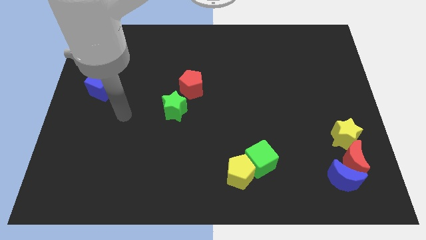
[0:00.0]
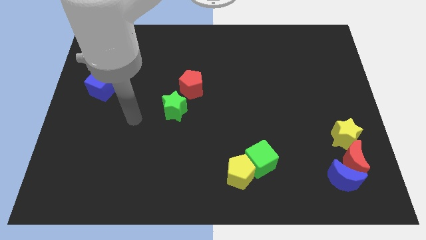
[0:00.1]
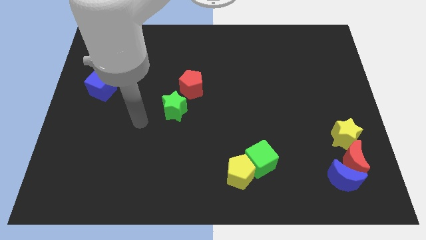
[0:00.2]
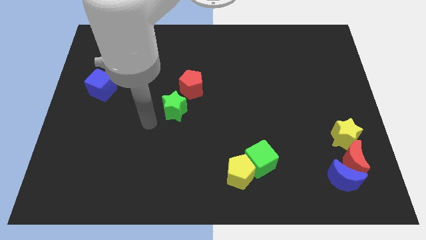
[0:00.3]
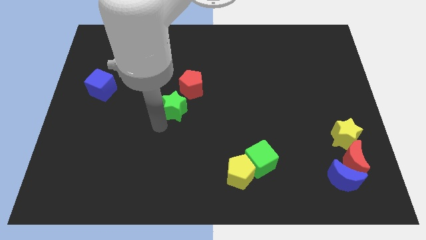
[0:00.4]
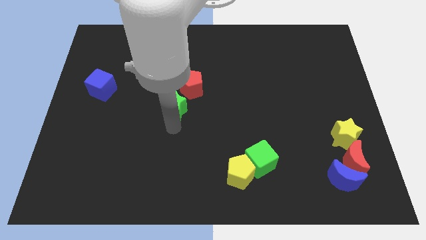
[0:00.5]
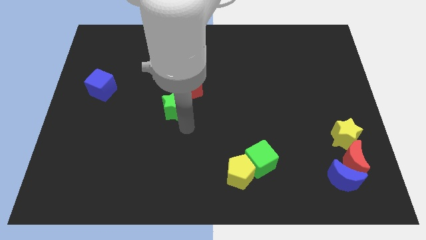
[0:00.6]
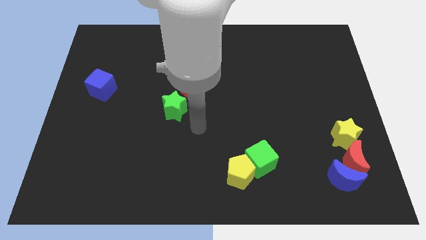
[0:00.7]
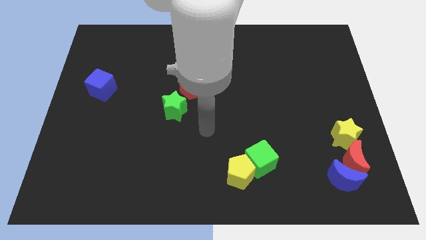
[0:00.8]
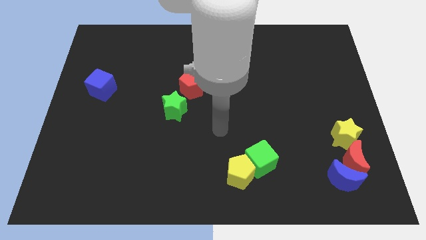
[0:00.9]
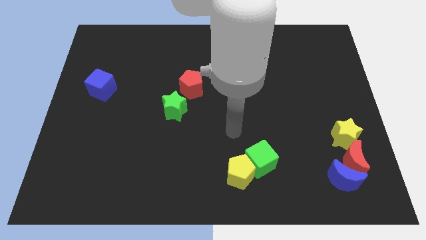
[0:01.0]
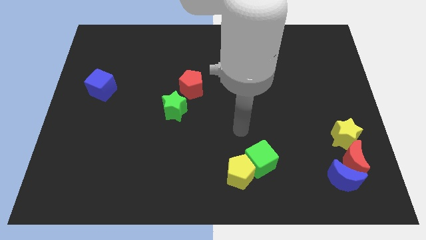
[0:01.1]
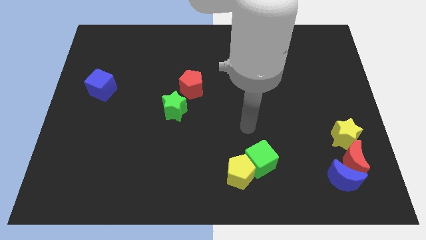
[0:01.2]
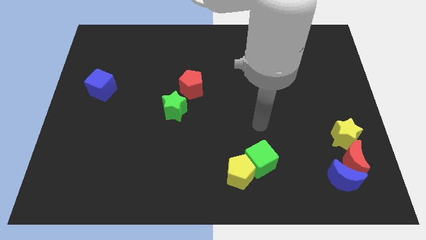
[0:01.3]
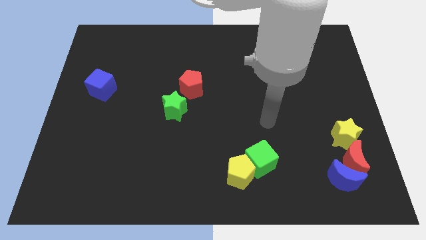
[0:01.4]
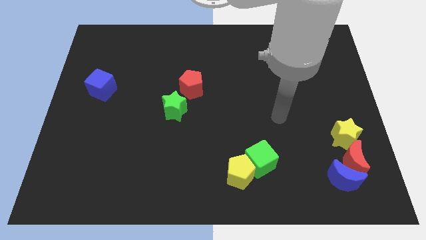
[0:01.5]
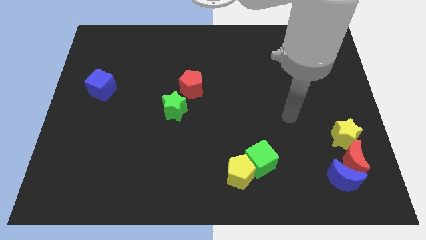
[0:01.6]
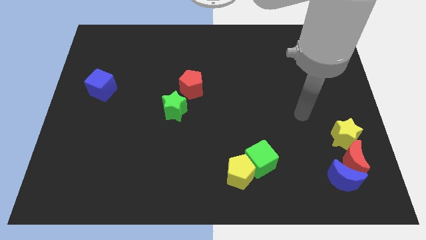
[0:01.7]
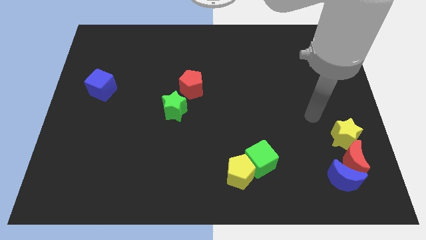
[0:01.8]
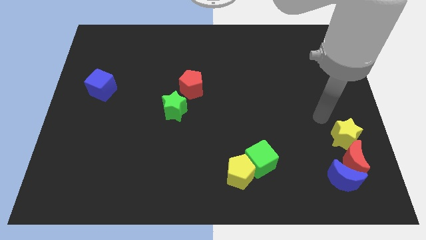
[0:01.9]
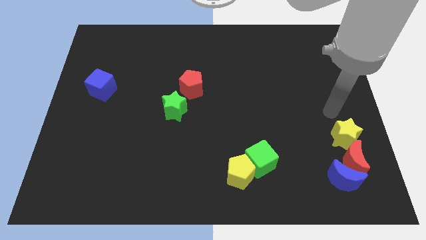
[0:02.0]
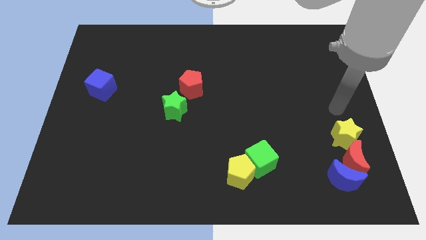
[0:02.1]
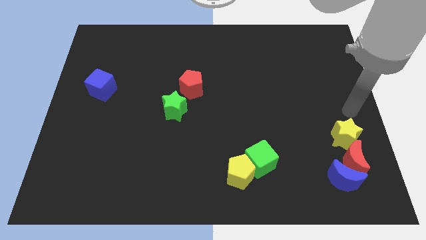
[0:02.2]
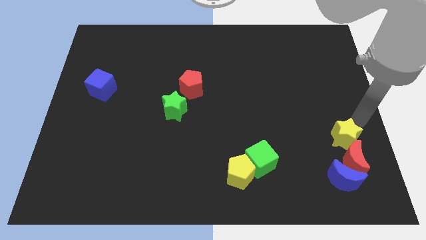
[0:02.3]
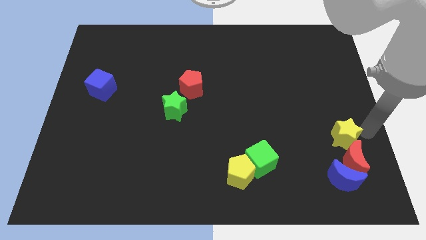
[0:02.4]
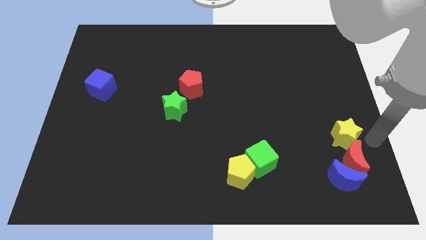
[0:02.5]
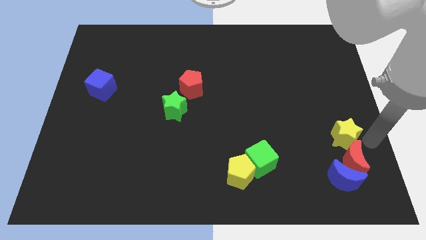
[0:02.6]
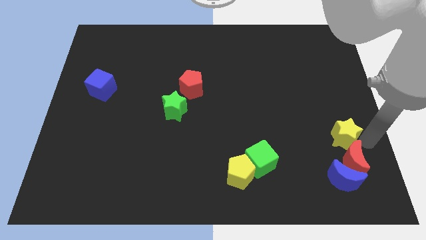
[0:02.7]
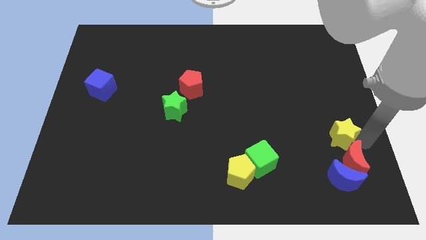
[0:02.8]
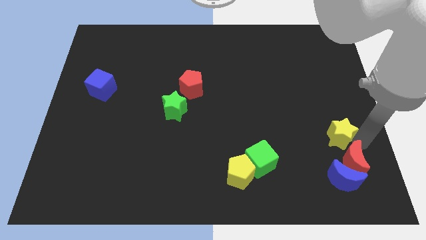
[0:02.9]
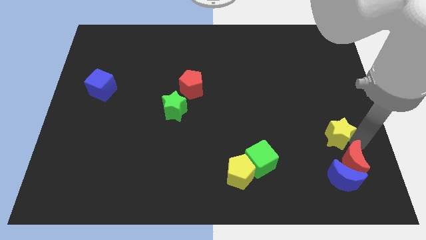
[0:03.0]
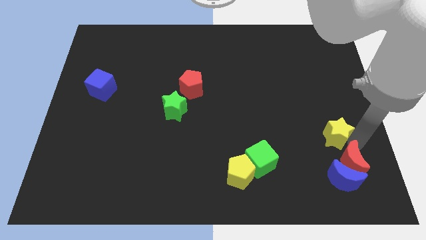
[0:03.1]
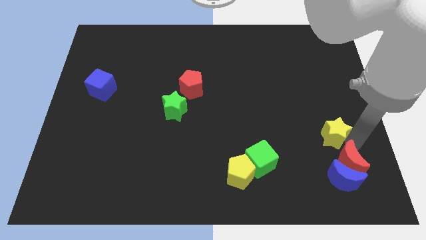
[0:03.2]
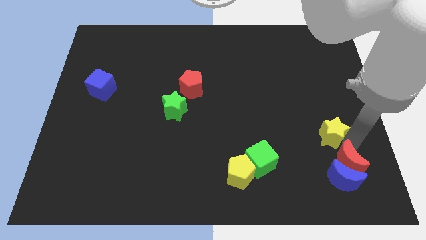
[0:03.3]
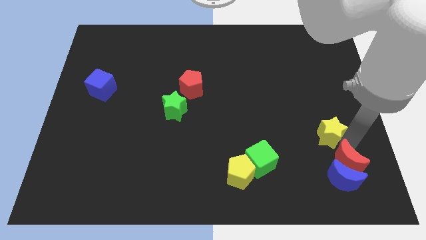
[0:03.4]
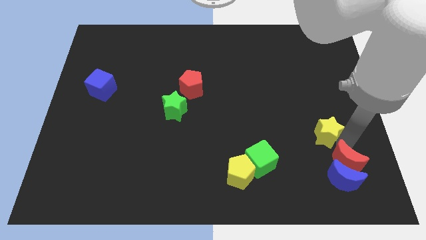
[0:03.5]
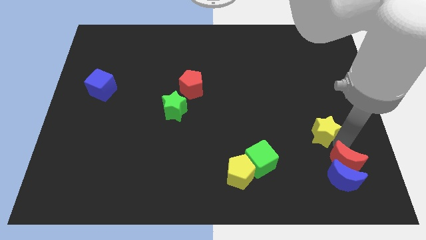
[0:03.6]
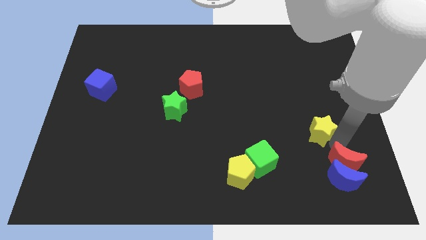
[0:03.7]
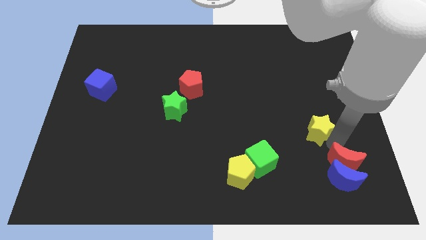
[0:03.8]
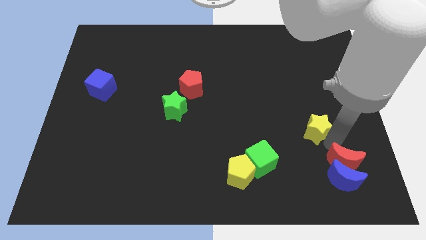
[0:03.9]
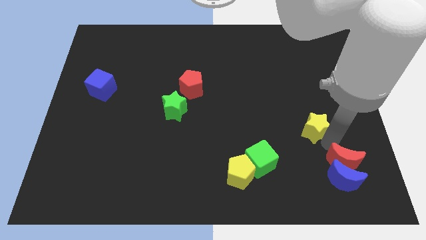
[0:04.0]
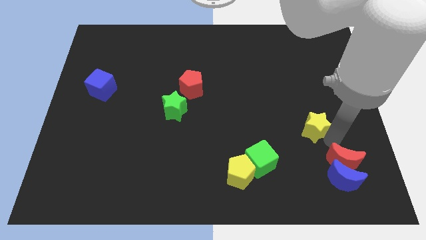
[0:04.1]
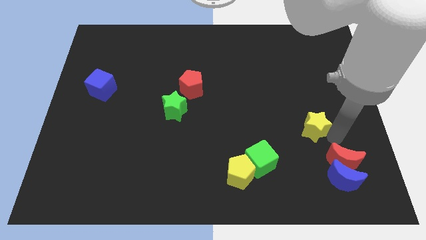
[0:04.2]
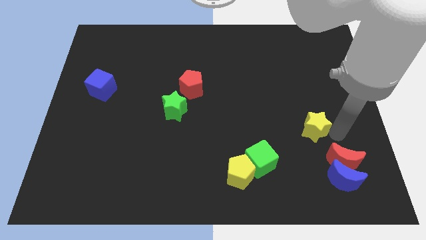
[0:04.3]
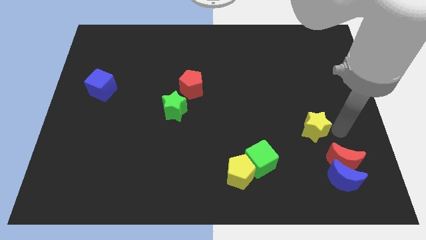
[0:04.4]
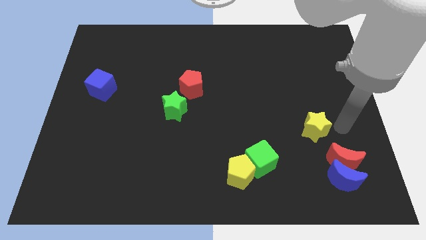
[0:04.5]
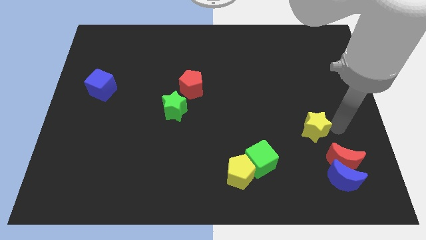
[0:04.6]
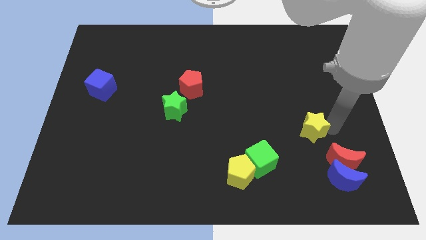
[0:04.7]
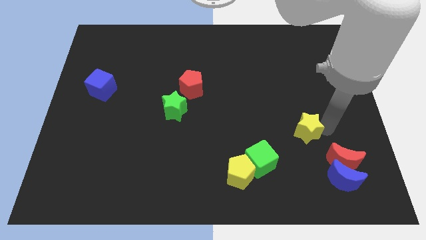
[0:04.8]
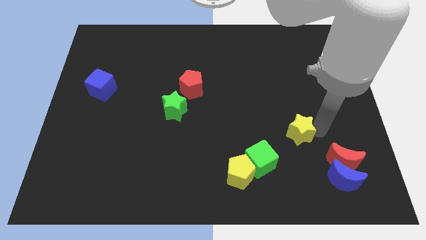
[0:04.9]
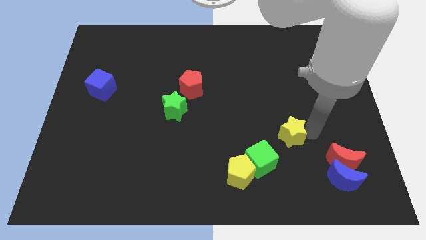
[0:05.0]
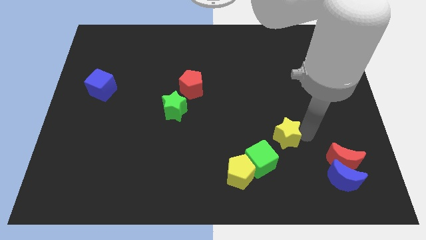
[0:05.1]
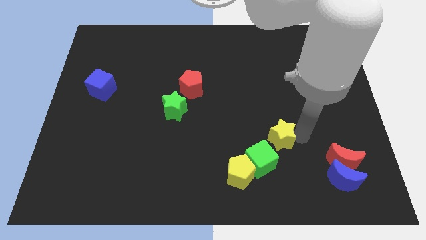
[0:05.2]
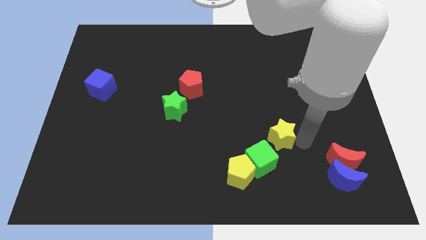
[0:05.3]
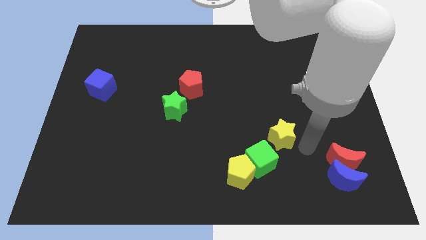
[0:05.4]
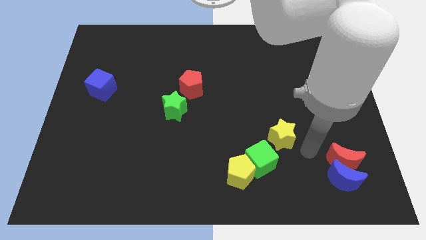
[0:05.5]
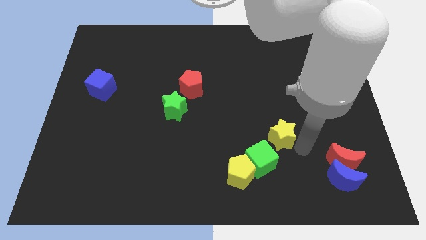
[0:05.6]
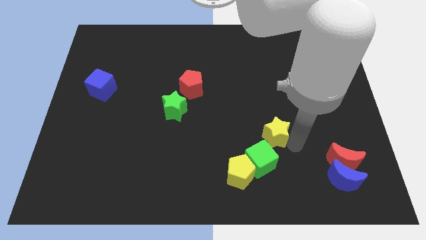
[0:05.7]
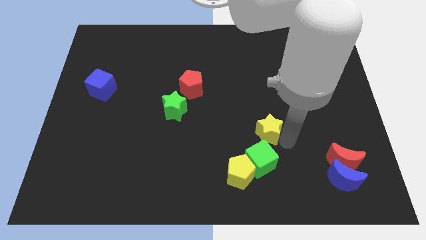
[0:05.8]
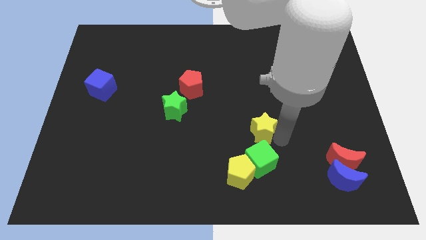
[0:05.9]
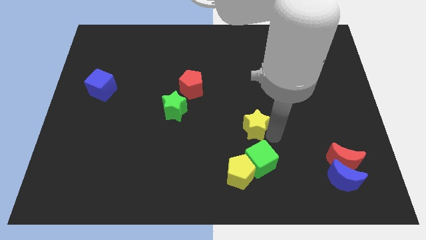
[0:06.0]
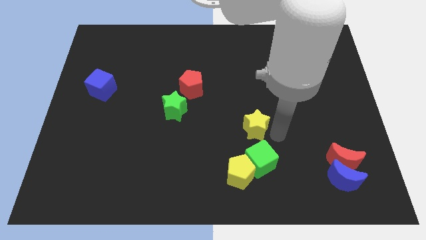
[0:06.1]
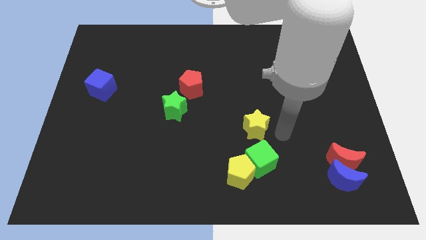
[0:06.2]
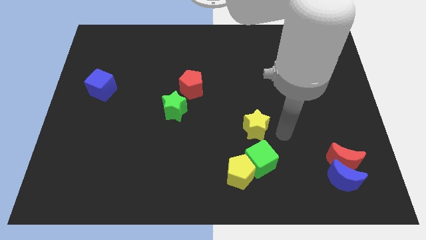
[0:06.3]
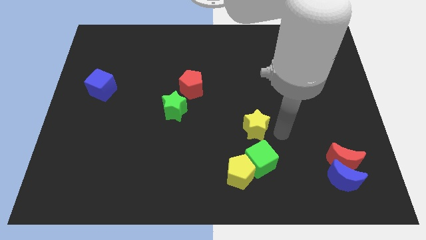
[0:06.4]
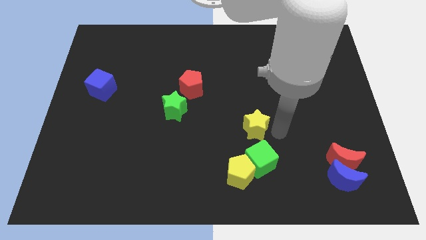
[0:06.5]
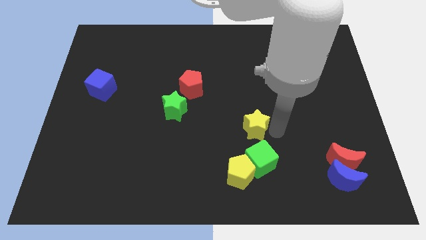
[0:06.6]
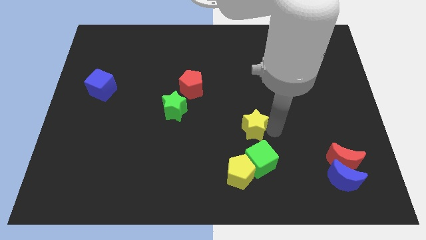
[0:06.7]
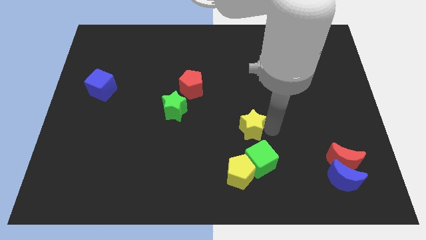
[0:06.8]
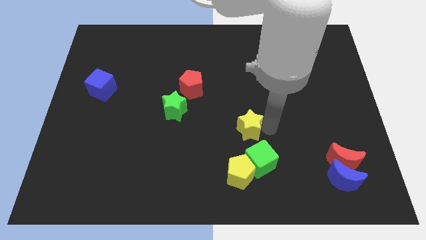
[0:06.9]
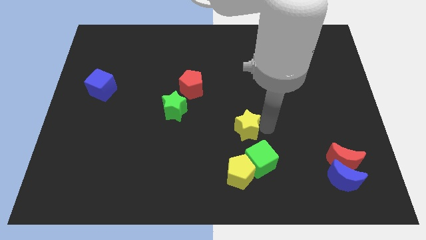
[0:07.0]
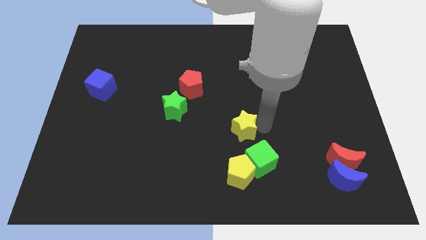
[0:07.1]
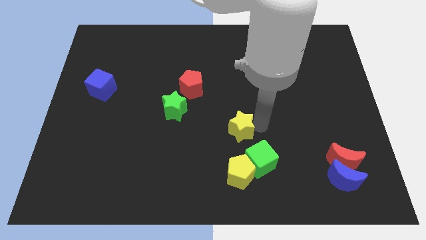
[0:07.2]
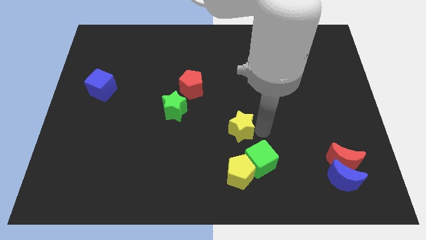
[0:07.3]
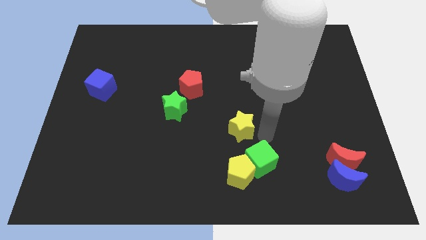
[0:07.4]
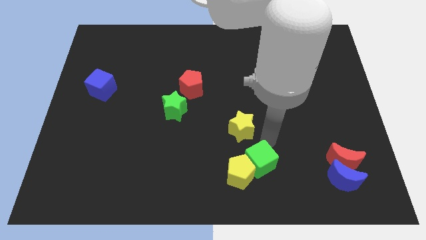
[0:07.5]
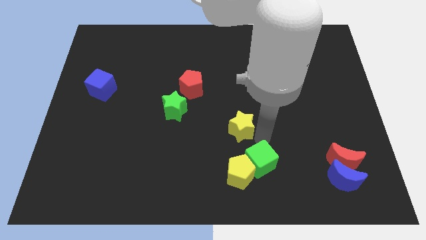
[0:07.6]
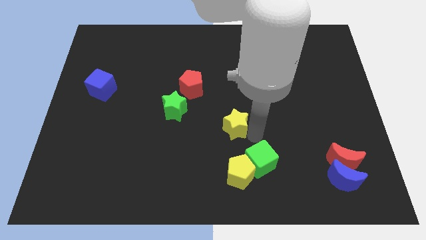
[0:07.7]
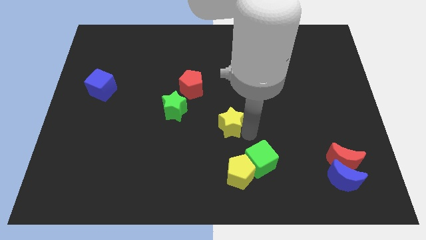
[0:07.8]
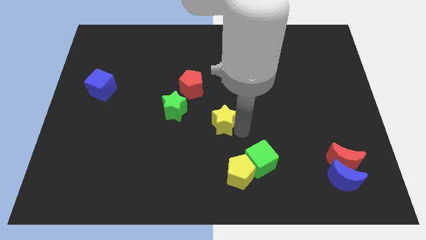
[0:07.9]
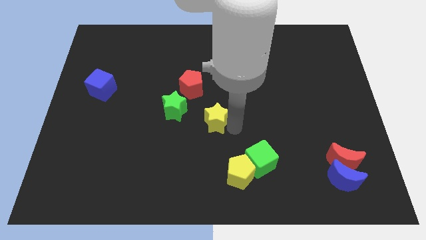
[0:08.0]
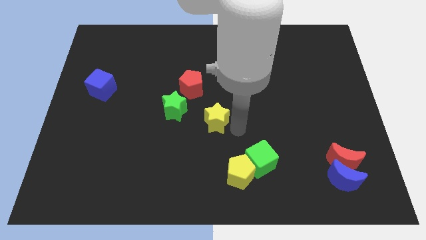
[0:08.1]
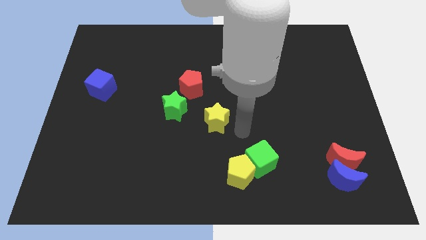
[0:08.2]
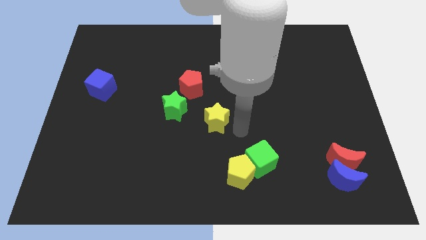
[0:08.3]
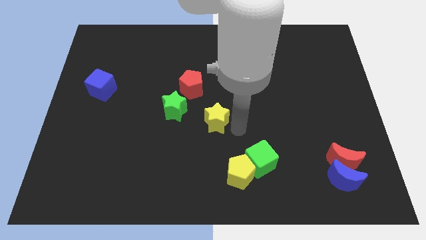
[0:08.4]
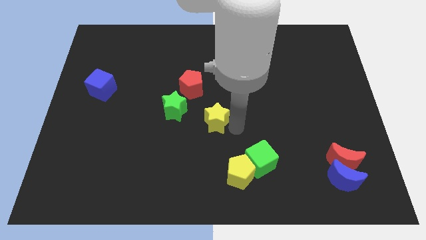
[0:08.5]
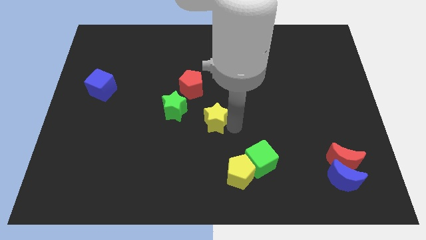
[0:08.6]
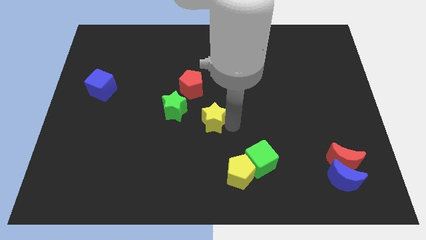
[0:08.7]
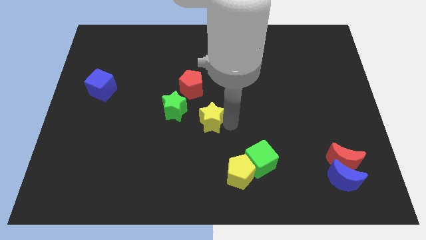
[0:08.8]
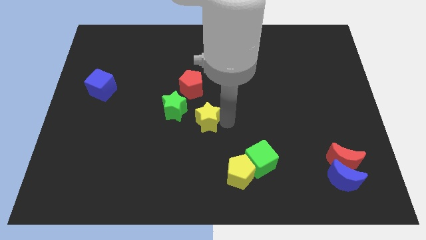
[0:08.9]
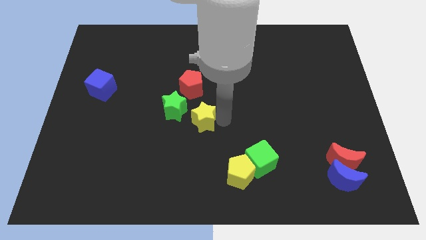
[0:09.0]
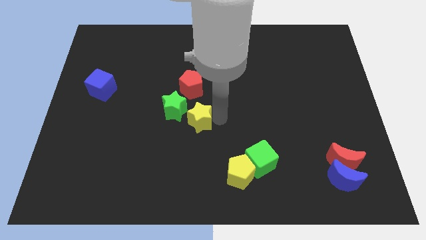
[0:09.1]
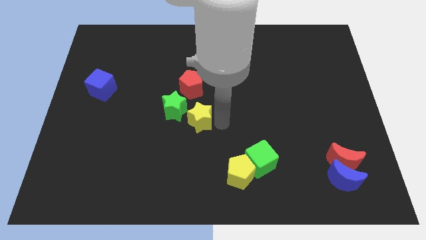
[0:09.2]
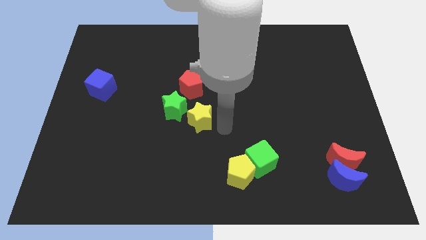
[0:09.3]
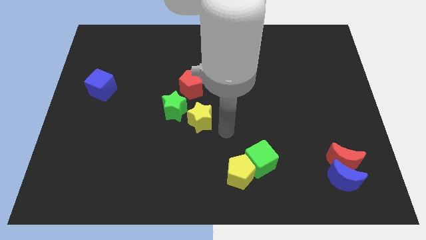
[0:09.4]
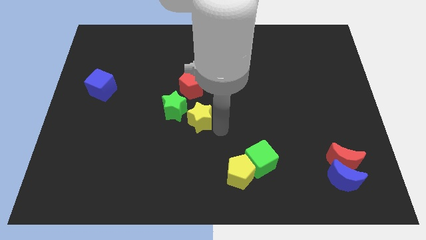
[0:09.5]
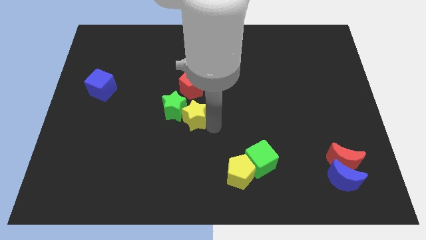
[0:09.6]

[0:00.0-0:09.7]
slide the yellow star close to the green star
